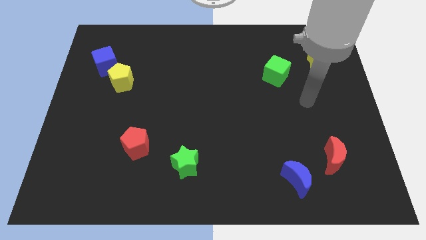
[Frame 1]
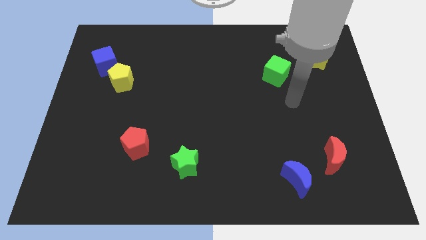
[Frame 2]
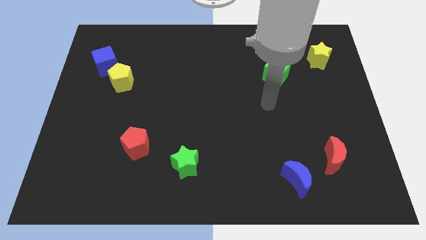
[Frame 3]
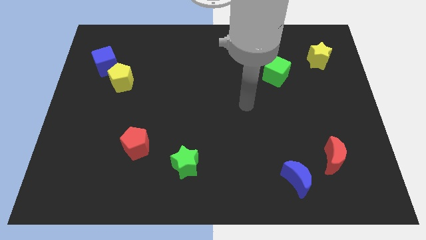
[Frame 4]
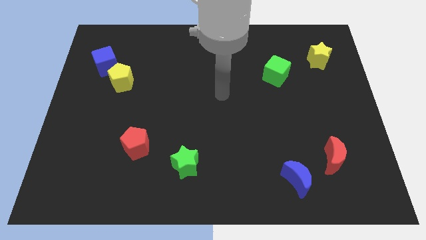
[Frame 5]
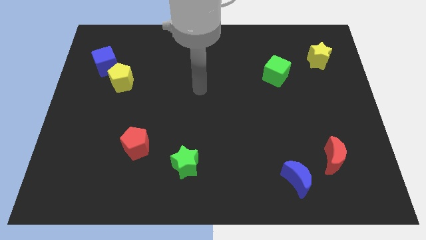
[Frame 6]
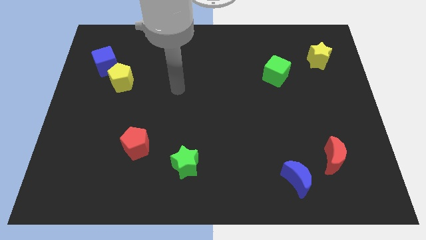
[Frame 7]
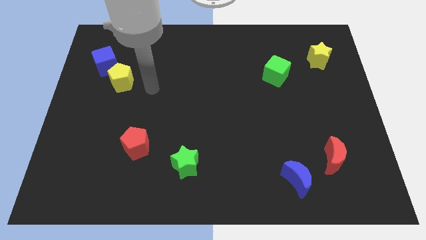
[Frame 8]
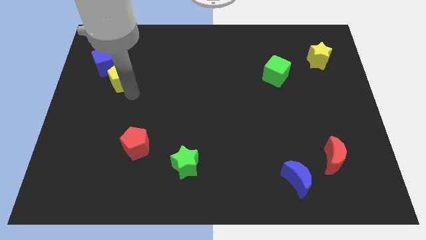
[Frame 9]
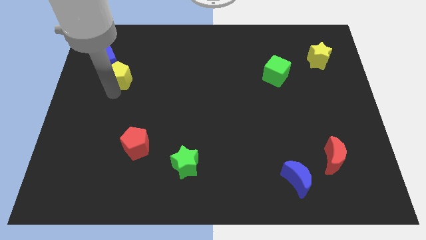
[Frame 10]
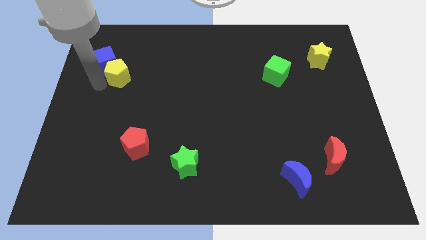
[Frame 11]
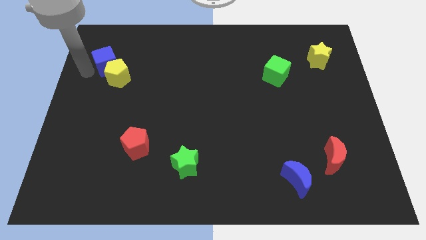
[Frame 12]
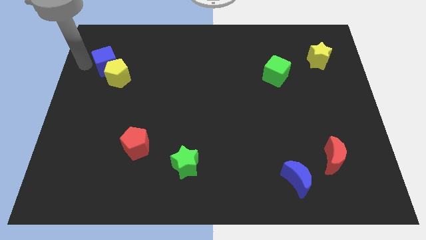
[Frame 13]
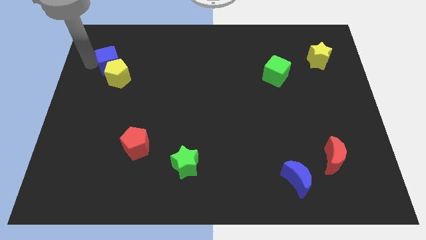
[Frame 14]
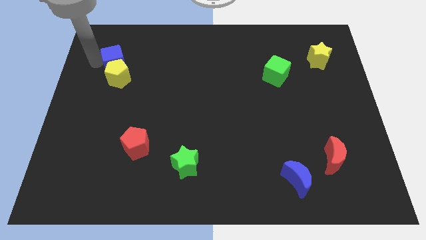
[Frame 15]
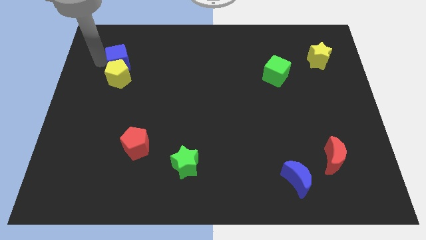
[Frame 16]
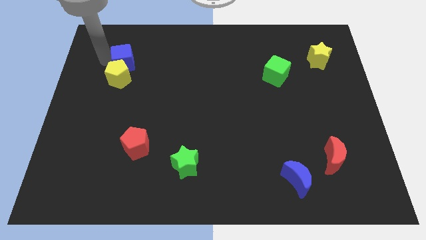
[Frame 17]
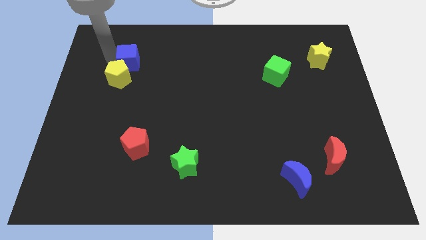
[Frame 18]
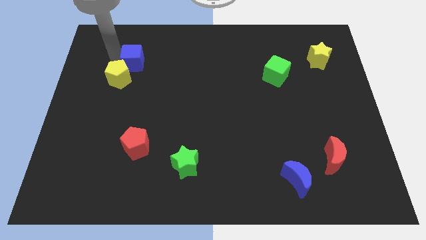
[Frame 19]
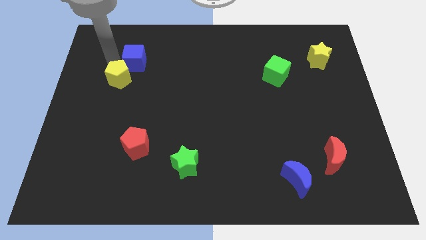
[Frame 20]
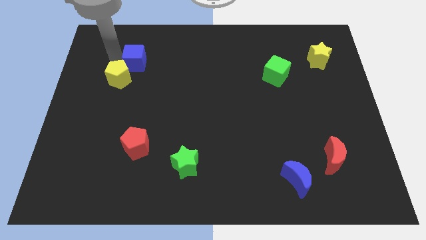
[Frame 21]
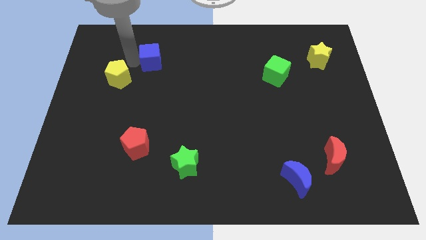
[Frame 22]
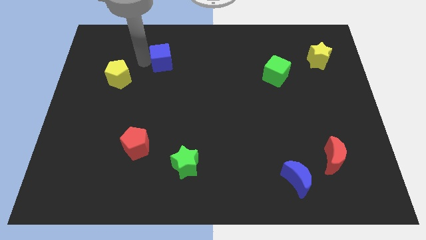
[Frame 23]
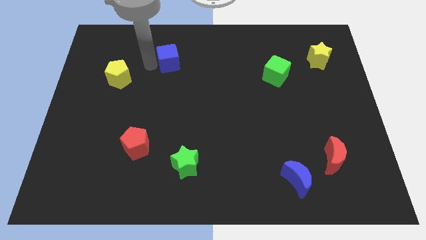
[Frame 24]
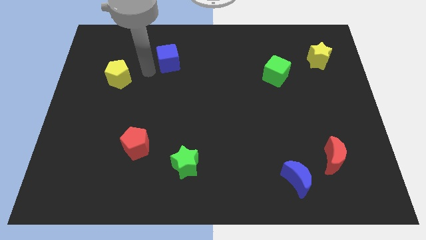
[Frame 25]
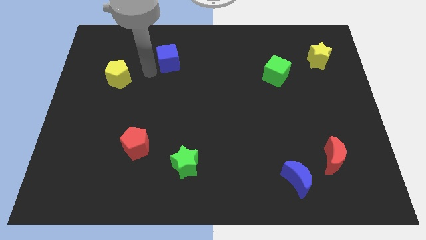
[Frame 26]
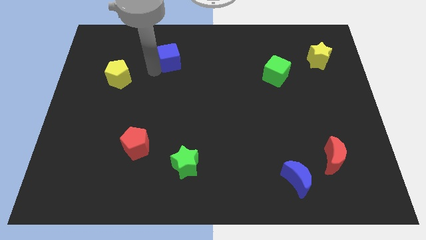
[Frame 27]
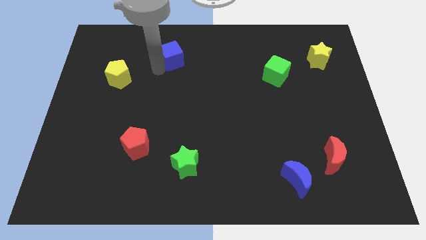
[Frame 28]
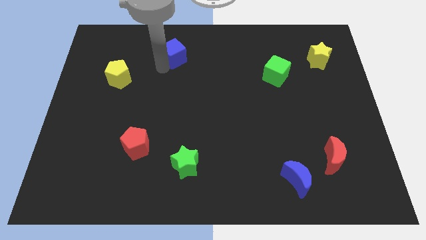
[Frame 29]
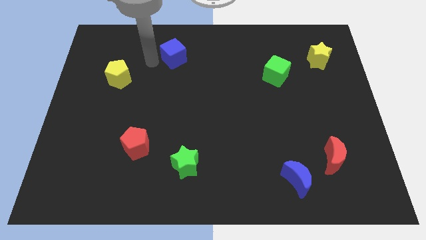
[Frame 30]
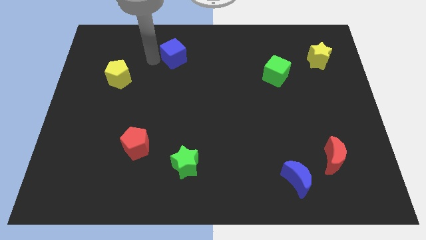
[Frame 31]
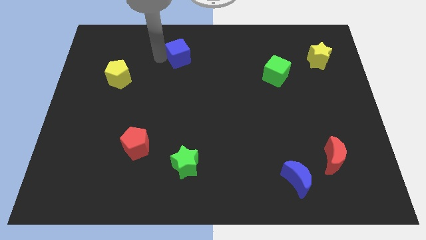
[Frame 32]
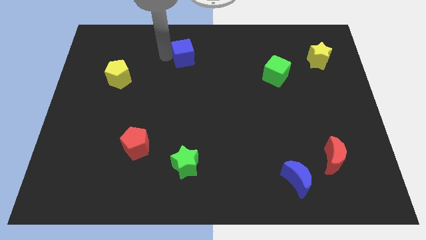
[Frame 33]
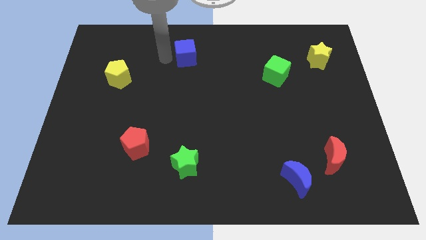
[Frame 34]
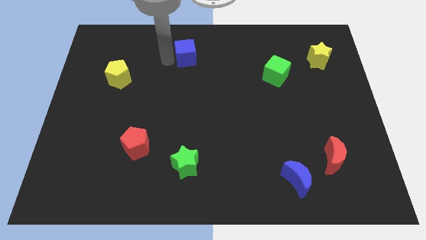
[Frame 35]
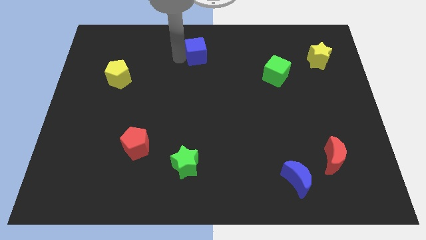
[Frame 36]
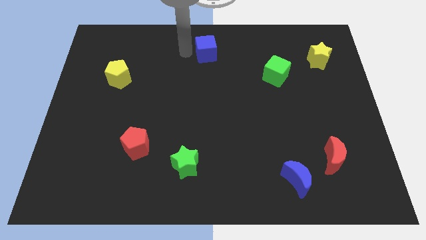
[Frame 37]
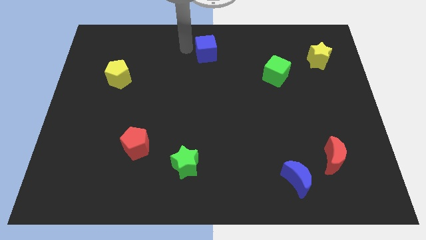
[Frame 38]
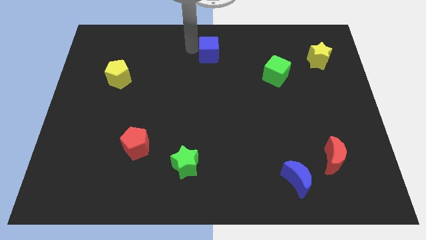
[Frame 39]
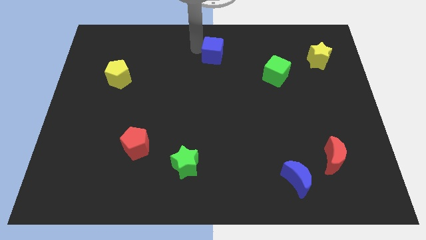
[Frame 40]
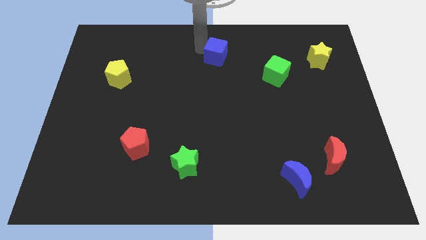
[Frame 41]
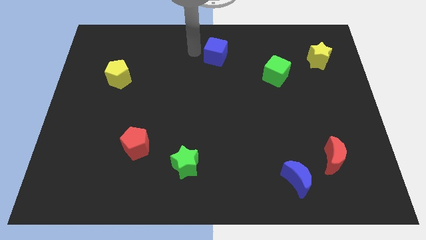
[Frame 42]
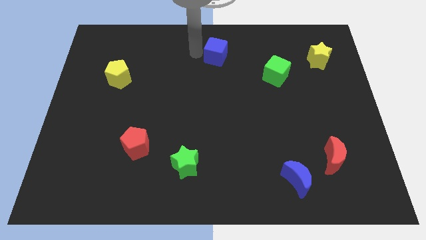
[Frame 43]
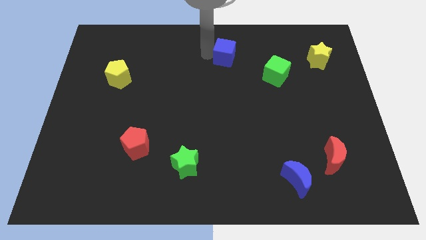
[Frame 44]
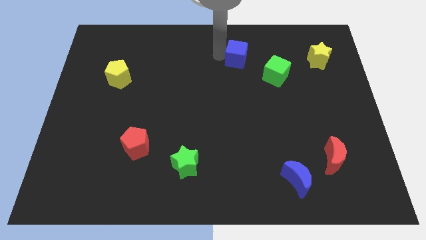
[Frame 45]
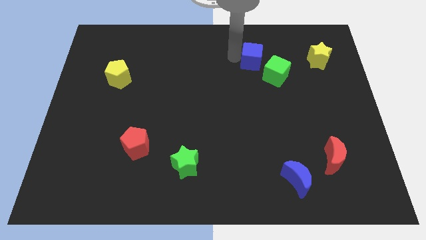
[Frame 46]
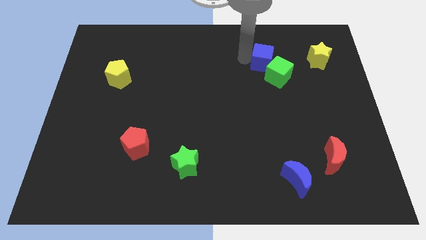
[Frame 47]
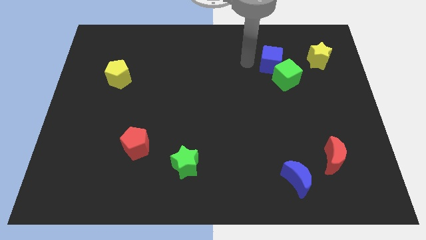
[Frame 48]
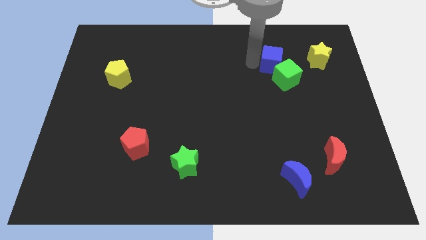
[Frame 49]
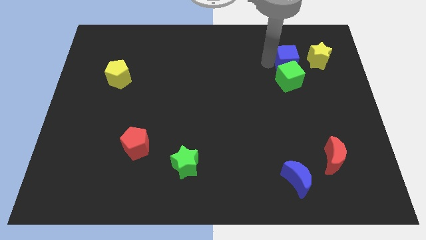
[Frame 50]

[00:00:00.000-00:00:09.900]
put the blue cube to the top right of the green cube

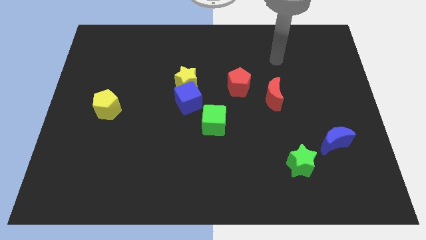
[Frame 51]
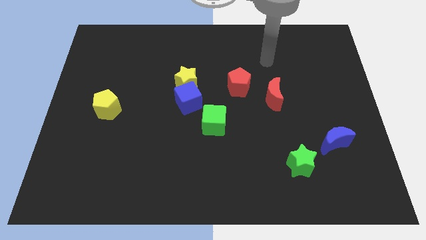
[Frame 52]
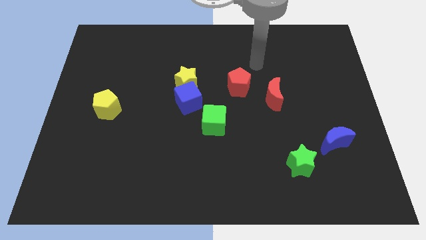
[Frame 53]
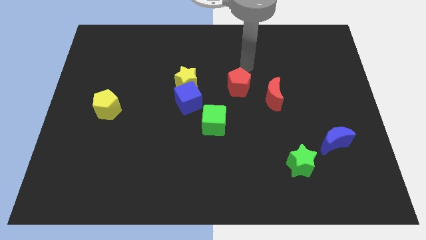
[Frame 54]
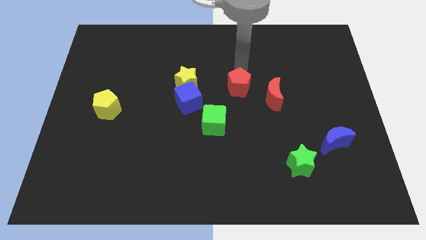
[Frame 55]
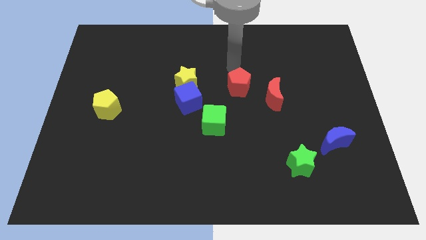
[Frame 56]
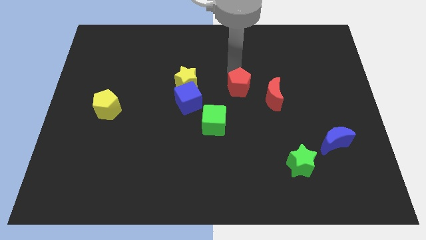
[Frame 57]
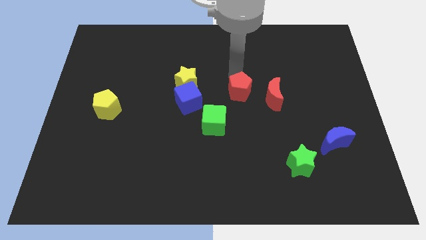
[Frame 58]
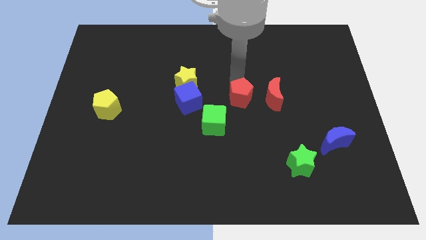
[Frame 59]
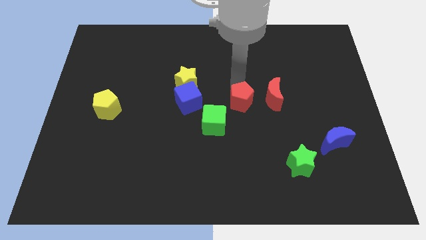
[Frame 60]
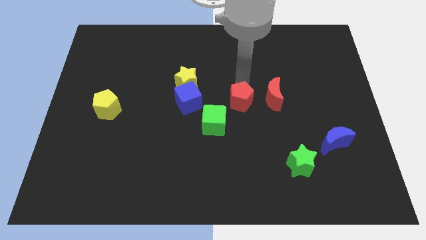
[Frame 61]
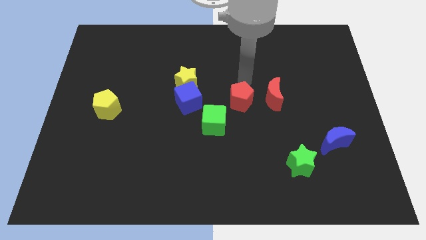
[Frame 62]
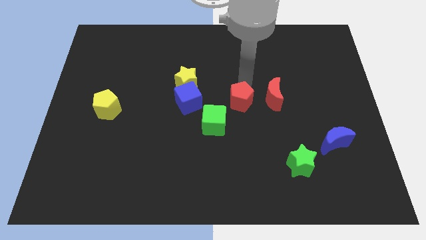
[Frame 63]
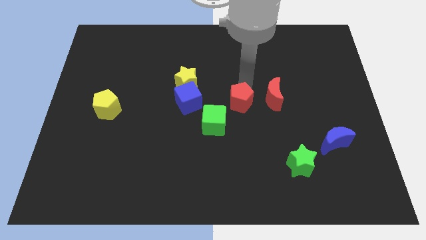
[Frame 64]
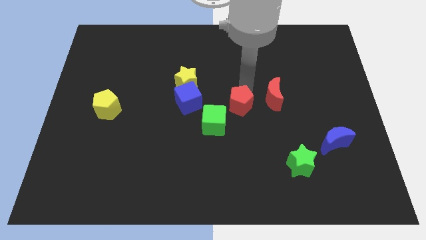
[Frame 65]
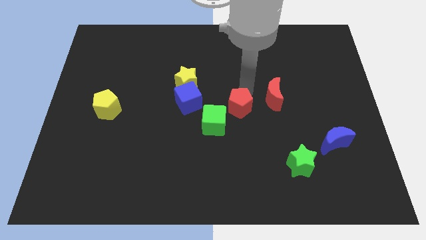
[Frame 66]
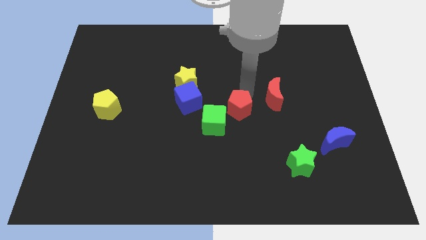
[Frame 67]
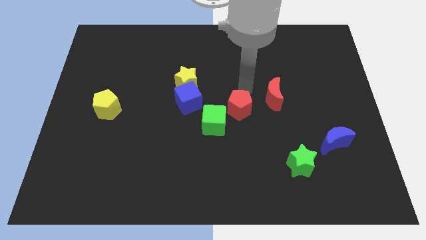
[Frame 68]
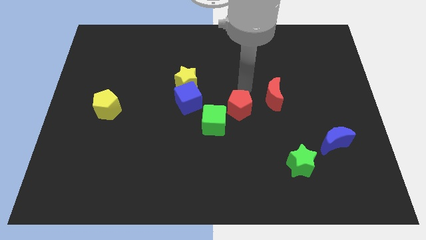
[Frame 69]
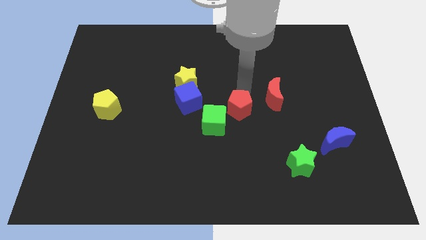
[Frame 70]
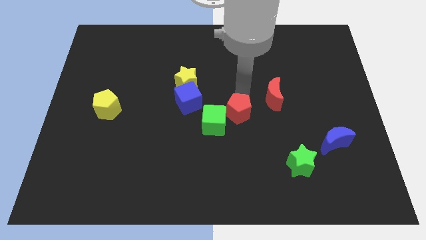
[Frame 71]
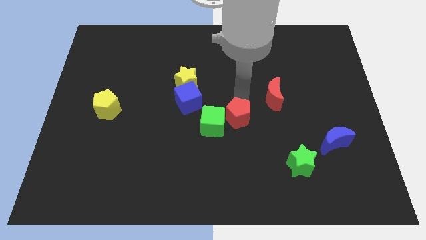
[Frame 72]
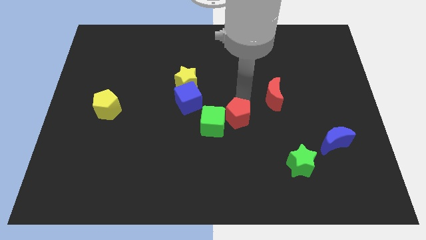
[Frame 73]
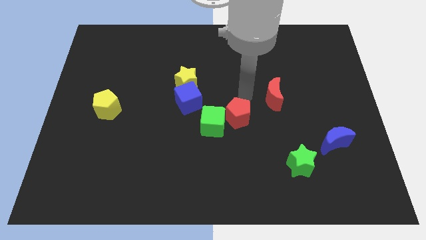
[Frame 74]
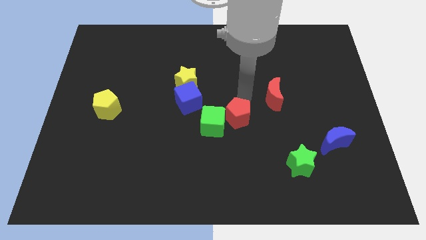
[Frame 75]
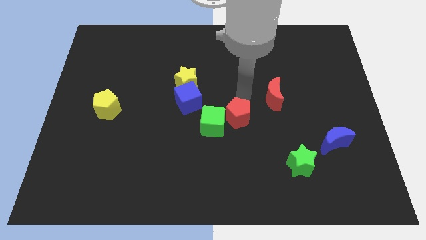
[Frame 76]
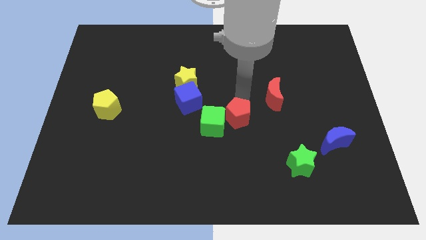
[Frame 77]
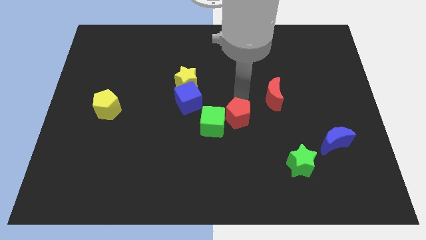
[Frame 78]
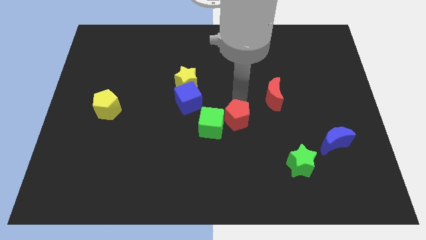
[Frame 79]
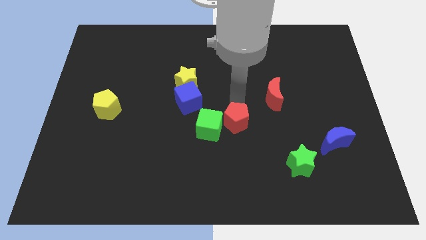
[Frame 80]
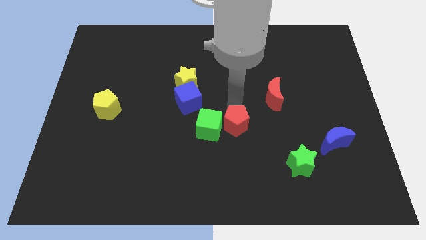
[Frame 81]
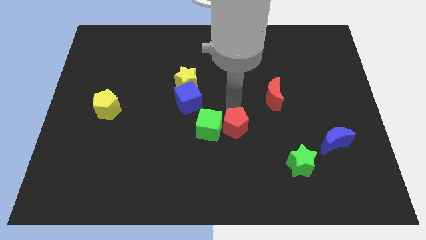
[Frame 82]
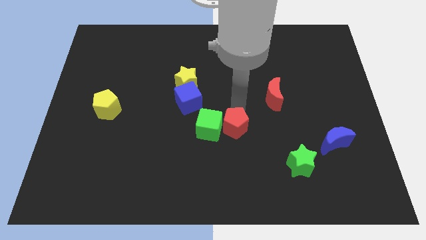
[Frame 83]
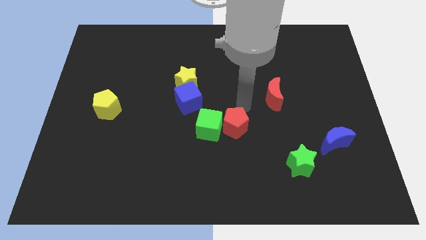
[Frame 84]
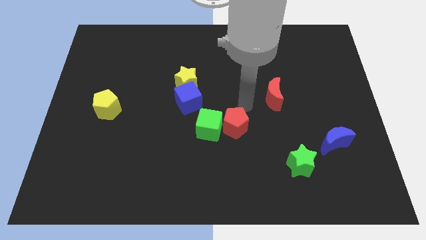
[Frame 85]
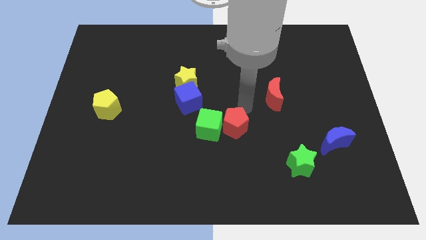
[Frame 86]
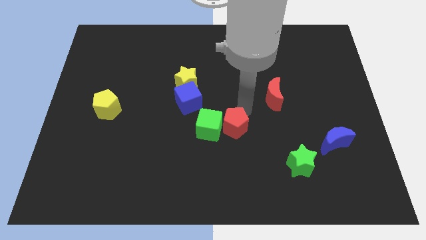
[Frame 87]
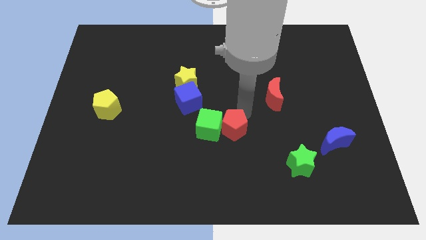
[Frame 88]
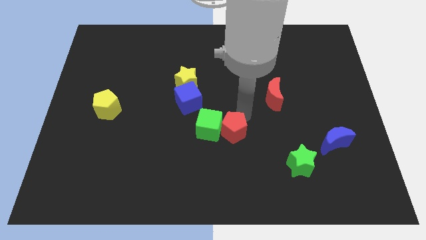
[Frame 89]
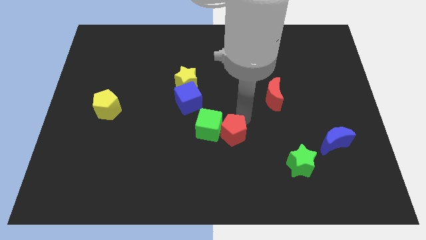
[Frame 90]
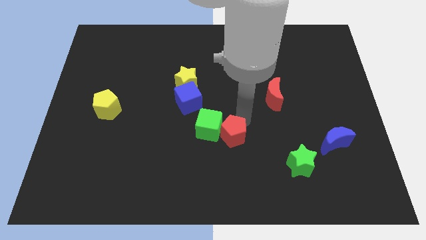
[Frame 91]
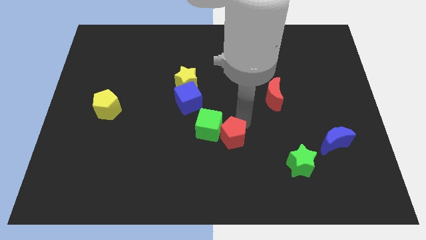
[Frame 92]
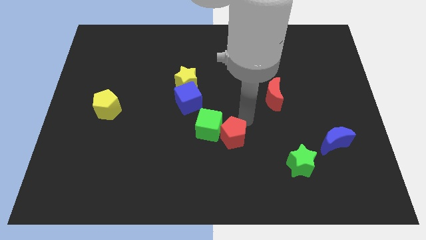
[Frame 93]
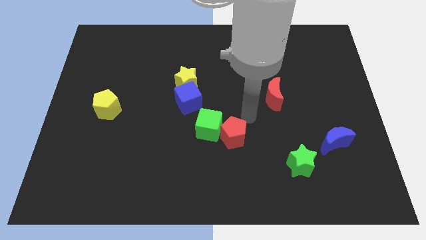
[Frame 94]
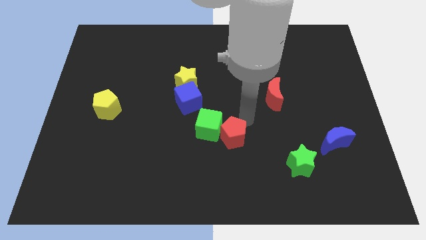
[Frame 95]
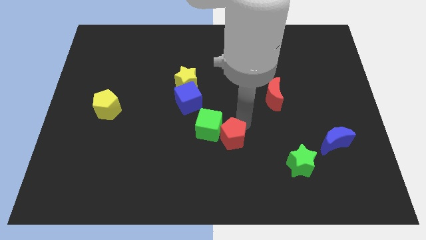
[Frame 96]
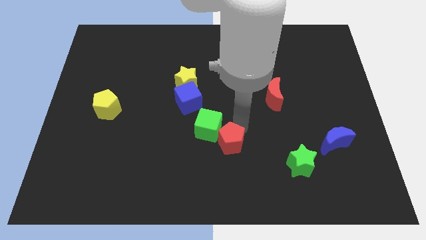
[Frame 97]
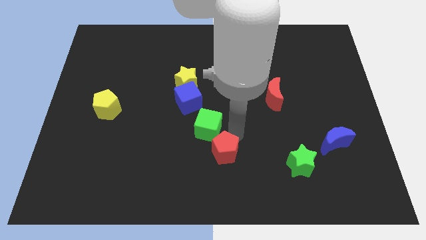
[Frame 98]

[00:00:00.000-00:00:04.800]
slide the red pentagon to the bottom side of the green cube
